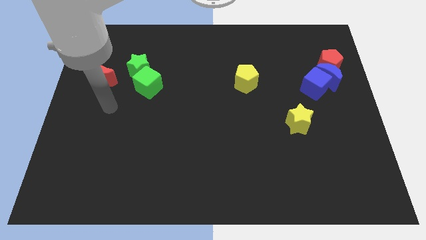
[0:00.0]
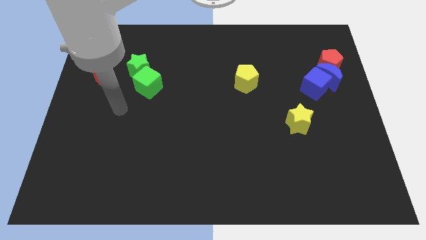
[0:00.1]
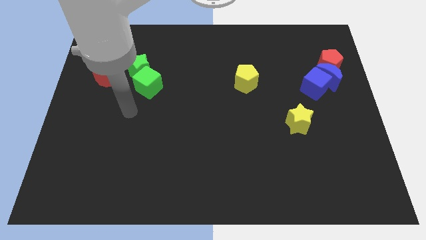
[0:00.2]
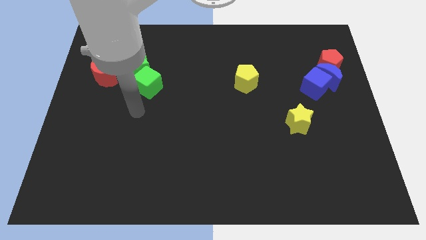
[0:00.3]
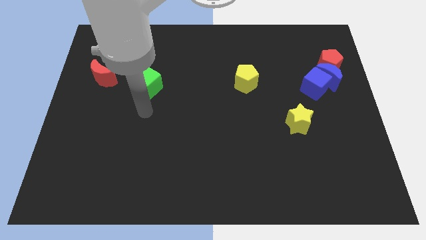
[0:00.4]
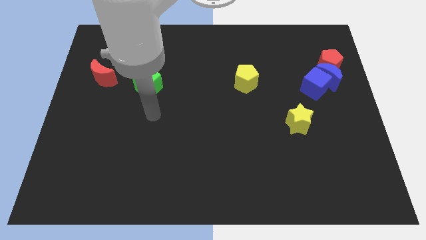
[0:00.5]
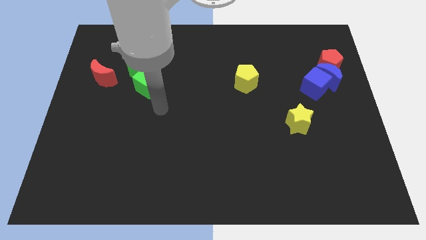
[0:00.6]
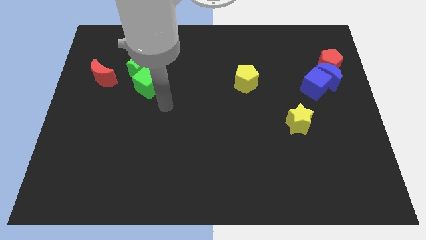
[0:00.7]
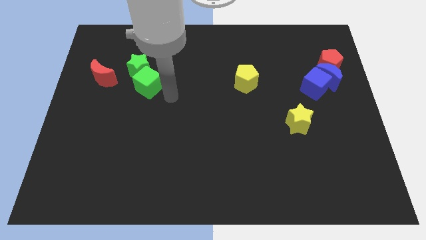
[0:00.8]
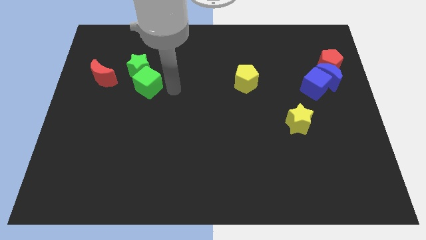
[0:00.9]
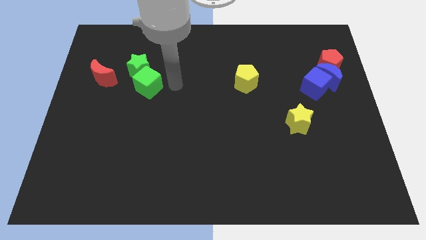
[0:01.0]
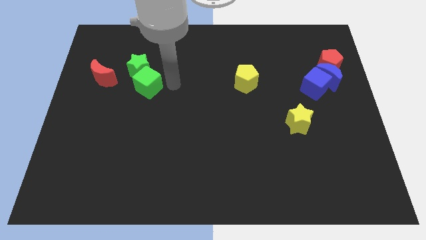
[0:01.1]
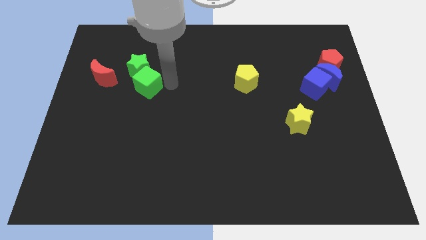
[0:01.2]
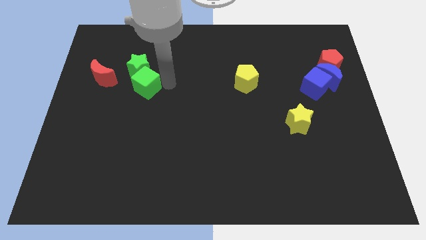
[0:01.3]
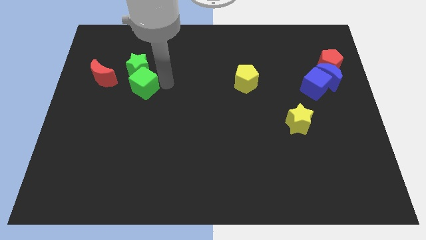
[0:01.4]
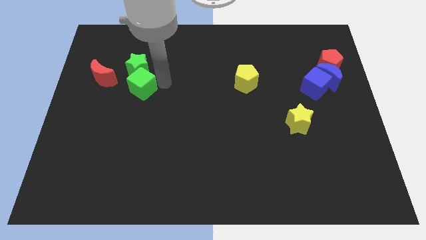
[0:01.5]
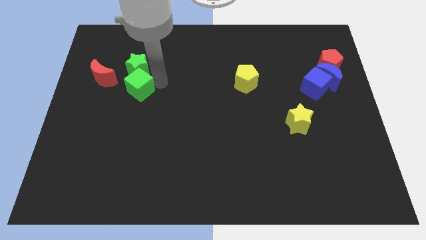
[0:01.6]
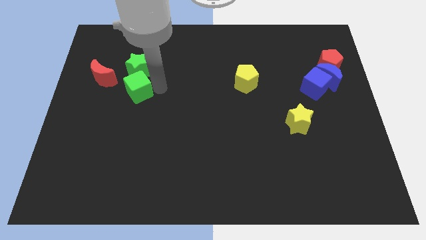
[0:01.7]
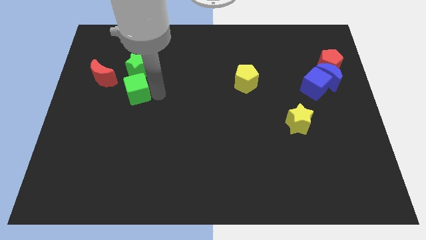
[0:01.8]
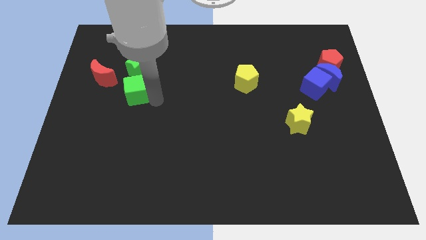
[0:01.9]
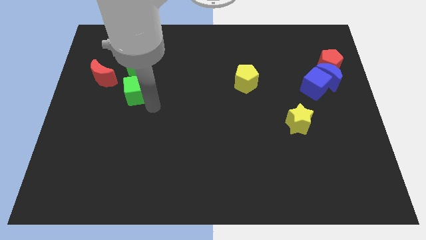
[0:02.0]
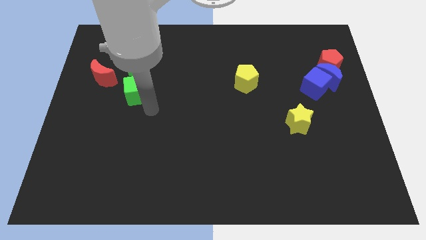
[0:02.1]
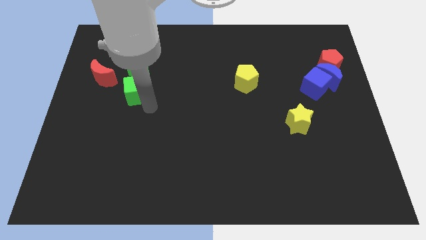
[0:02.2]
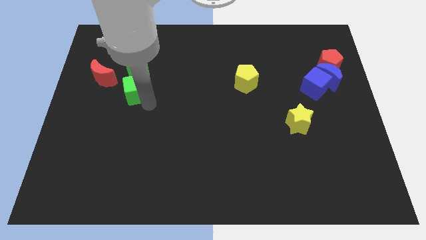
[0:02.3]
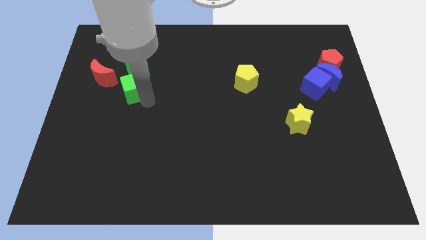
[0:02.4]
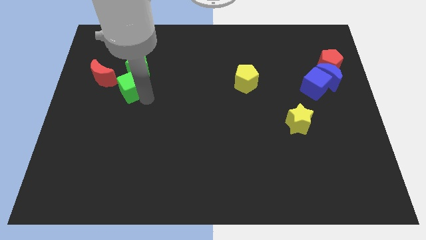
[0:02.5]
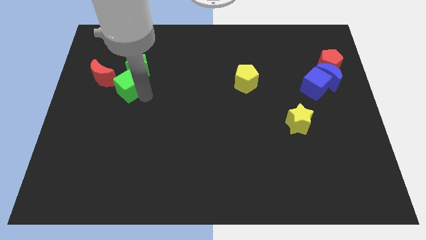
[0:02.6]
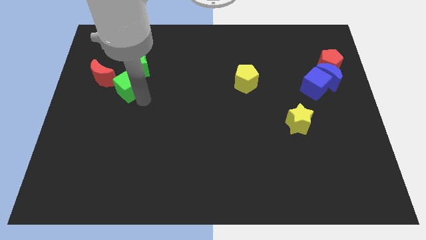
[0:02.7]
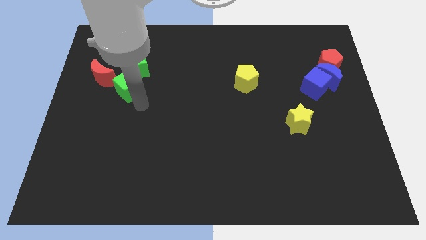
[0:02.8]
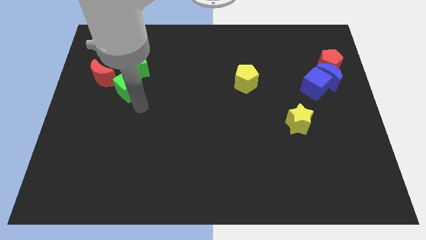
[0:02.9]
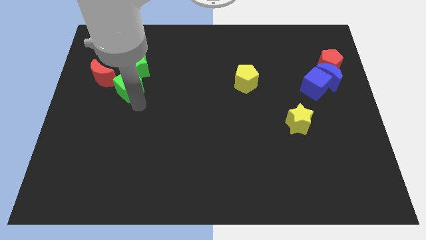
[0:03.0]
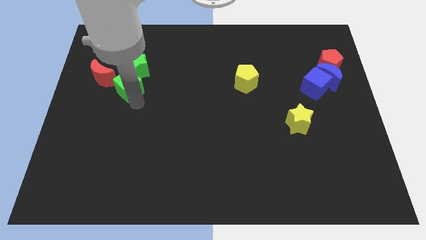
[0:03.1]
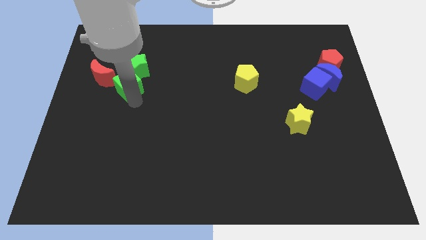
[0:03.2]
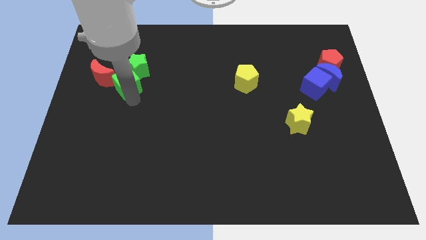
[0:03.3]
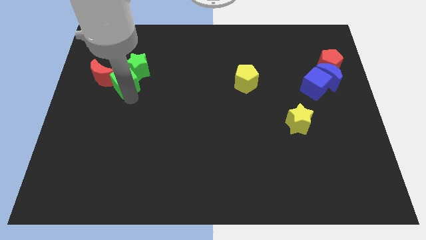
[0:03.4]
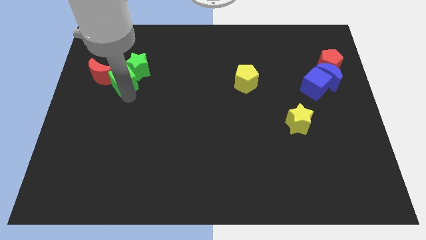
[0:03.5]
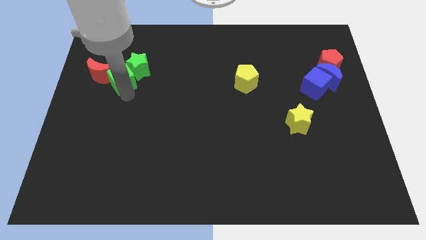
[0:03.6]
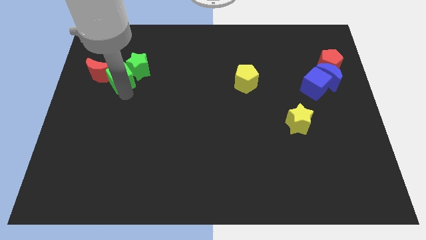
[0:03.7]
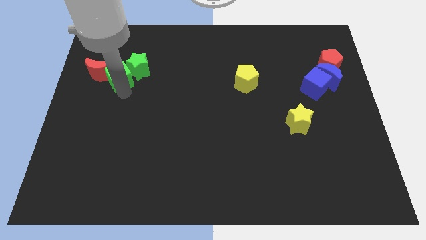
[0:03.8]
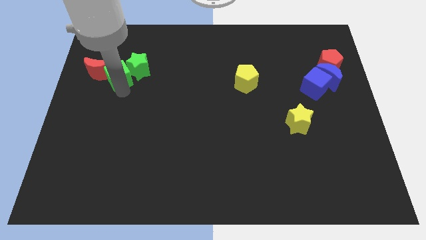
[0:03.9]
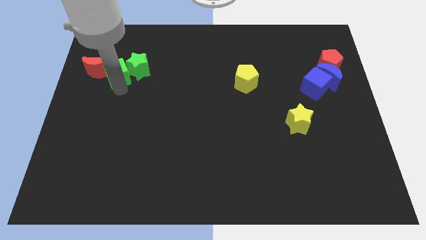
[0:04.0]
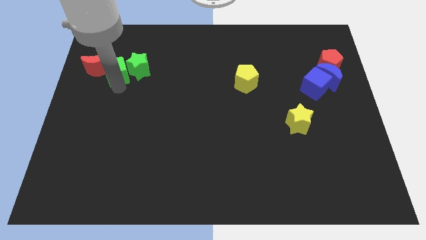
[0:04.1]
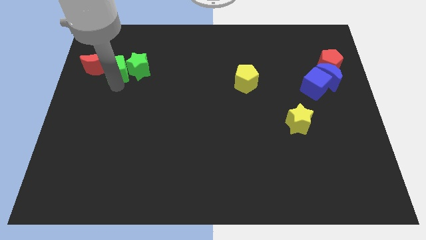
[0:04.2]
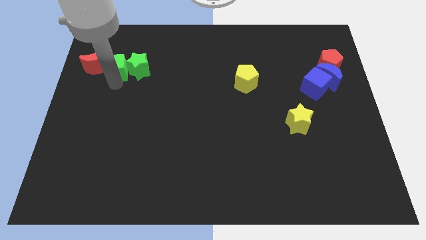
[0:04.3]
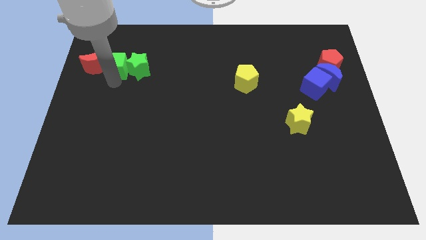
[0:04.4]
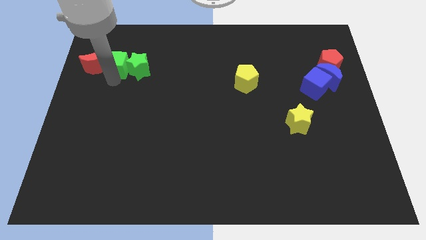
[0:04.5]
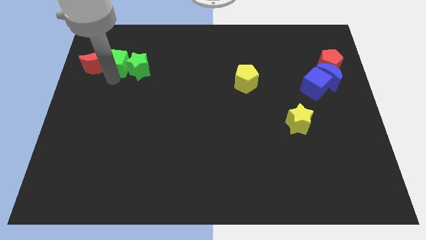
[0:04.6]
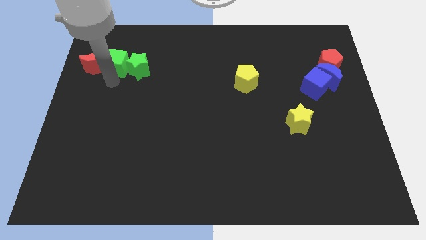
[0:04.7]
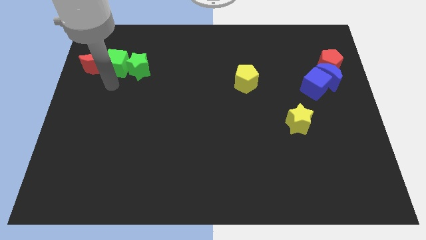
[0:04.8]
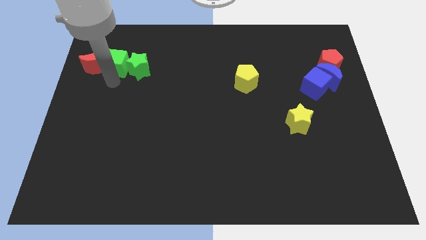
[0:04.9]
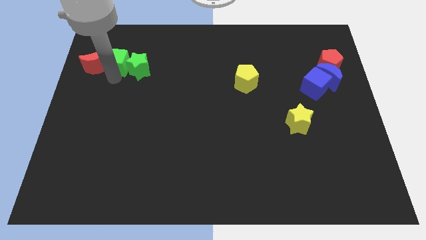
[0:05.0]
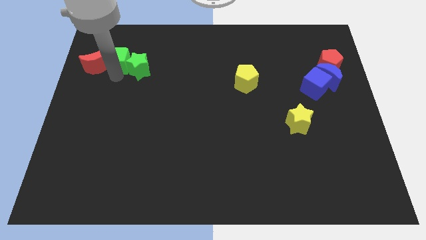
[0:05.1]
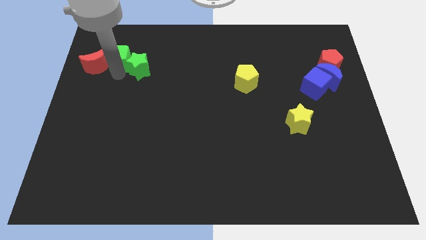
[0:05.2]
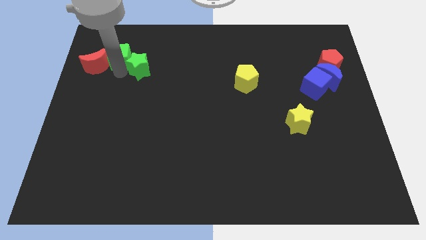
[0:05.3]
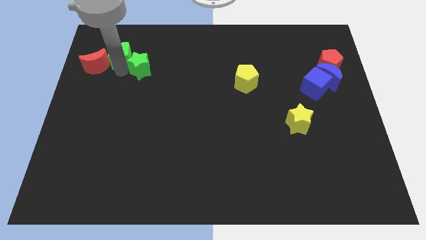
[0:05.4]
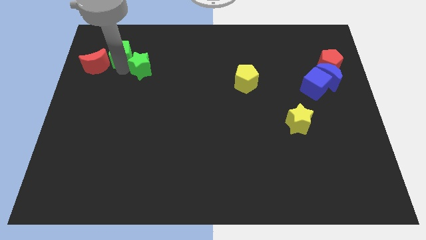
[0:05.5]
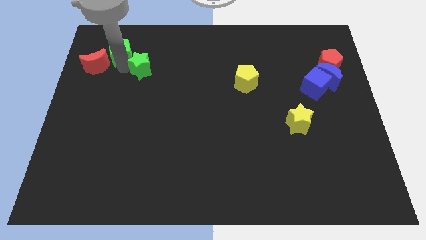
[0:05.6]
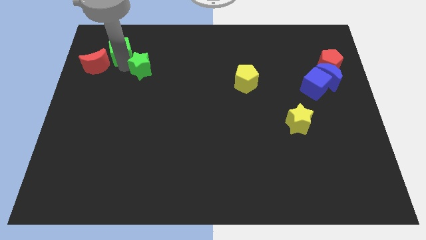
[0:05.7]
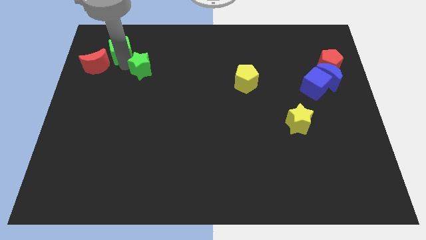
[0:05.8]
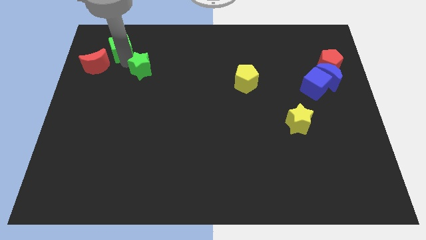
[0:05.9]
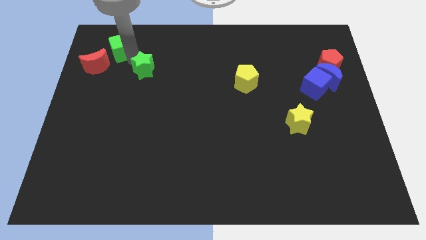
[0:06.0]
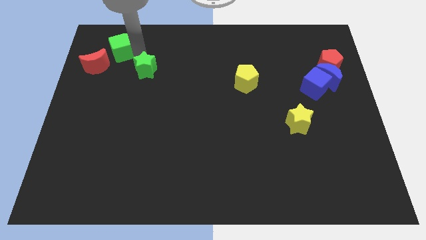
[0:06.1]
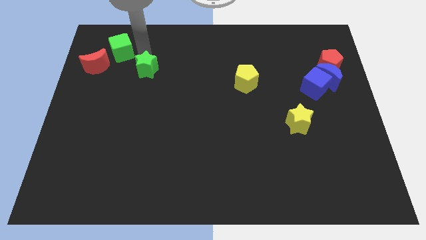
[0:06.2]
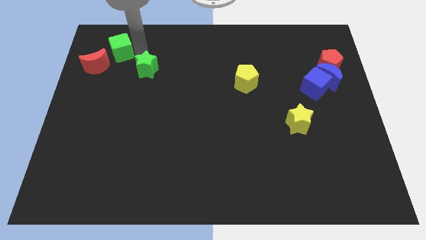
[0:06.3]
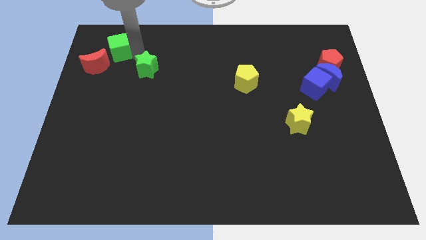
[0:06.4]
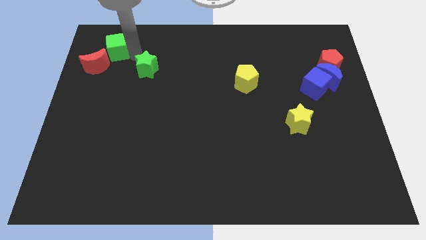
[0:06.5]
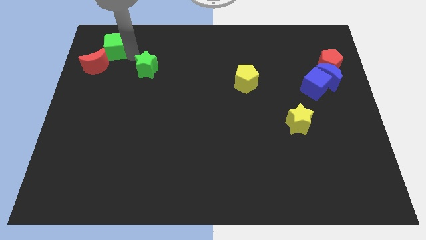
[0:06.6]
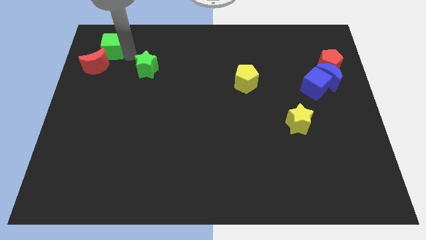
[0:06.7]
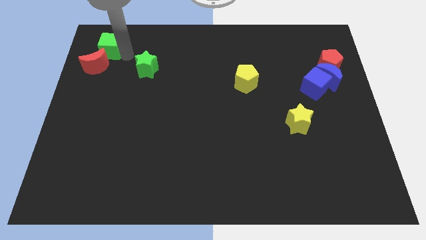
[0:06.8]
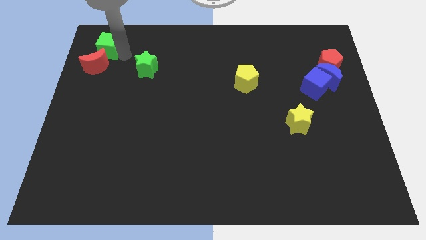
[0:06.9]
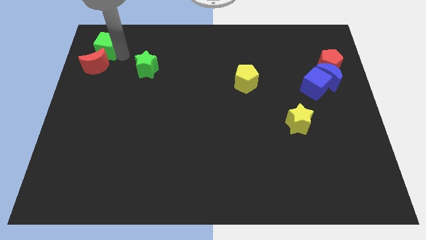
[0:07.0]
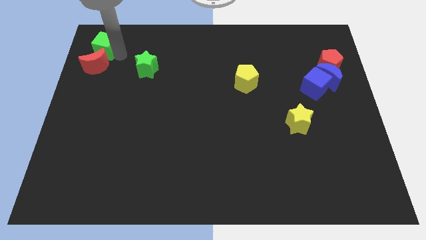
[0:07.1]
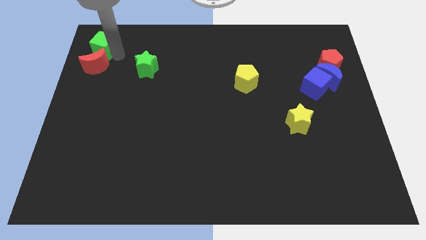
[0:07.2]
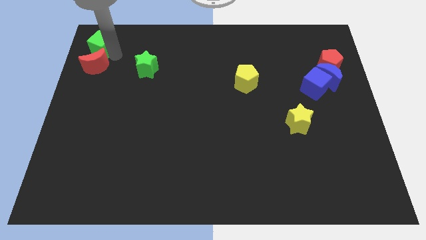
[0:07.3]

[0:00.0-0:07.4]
push the green cube to the upper left corner
